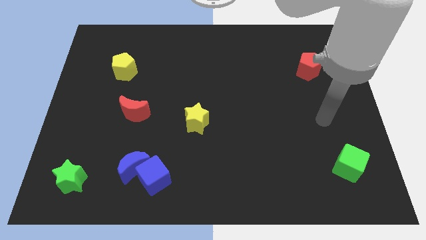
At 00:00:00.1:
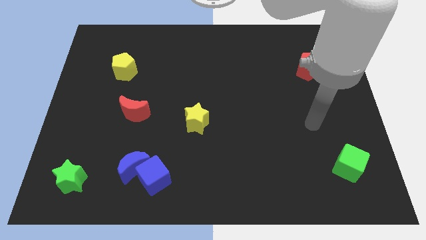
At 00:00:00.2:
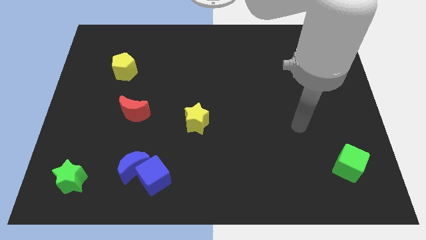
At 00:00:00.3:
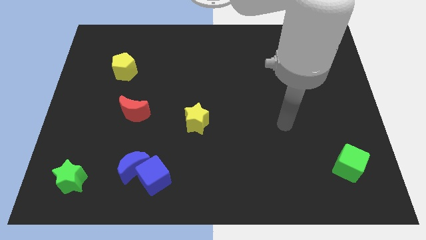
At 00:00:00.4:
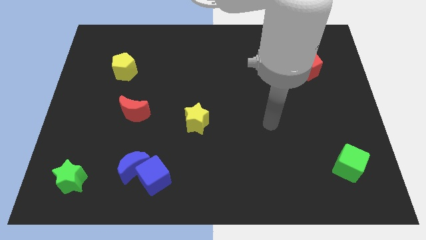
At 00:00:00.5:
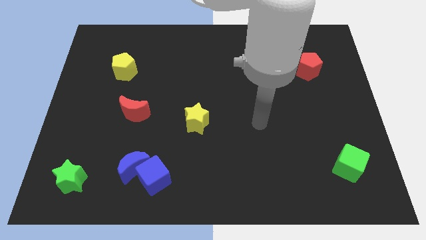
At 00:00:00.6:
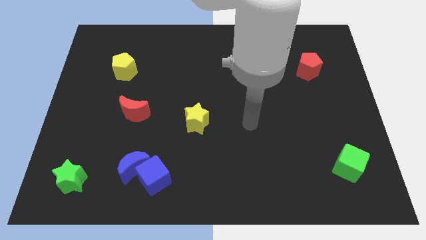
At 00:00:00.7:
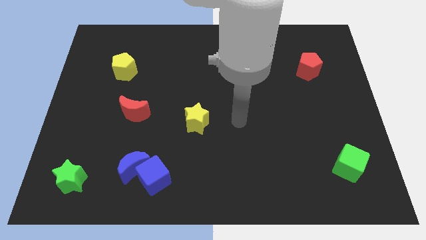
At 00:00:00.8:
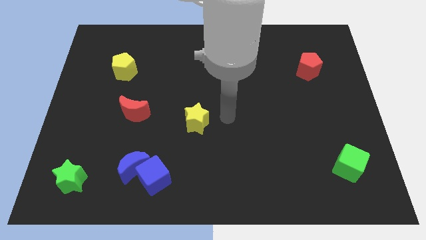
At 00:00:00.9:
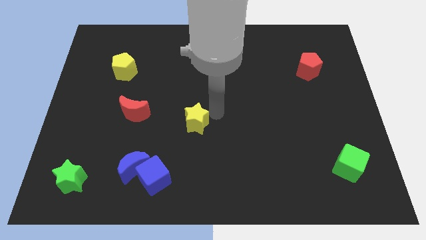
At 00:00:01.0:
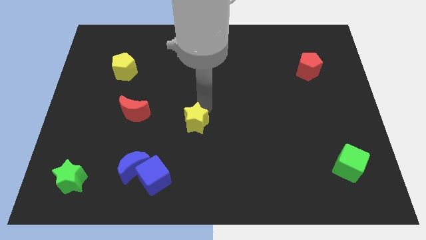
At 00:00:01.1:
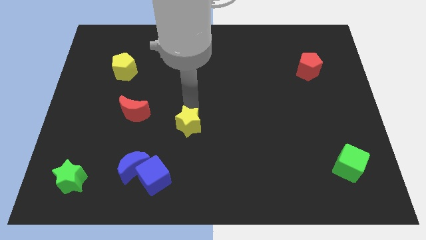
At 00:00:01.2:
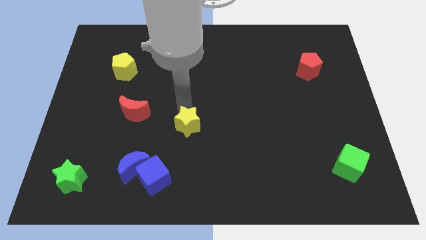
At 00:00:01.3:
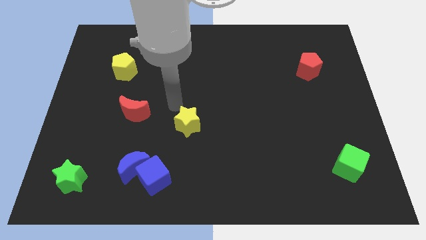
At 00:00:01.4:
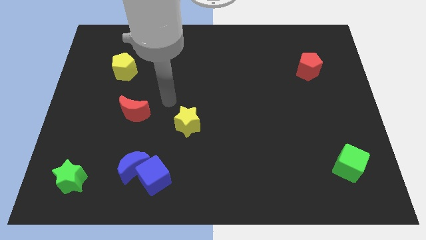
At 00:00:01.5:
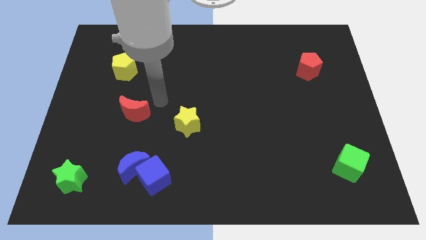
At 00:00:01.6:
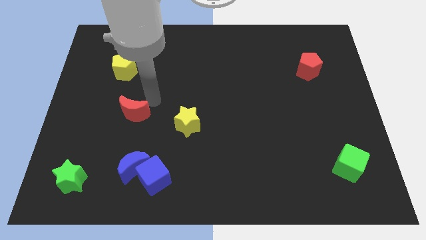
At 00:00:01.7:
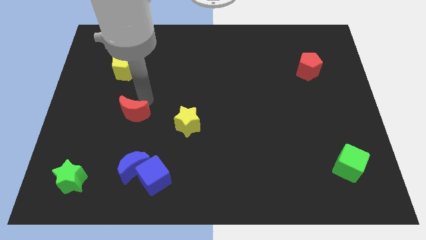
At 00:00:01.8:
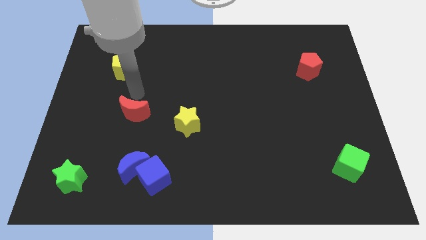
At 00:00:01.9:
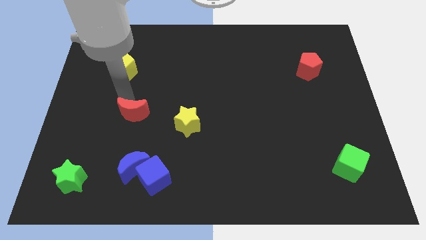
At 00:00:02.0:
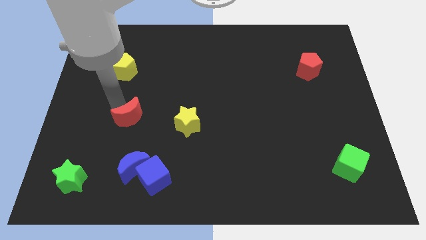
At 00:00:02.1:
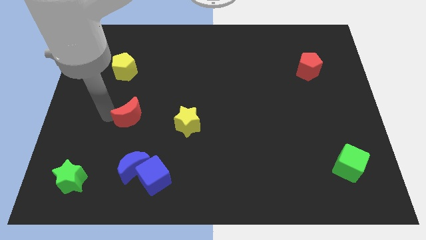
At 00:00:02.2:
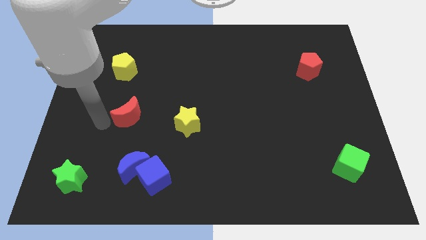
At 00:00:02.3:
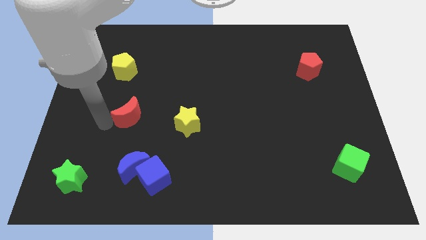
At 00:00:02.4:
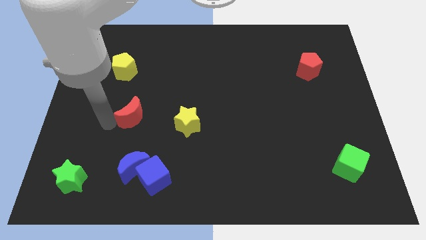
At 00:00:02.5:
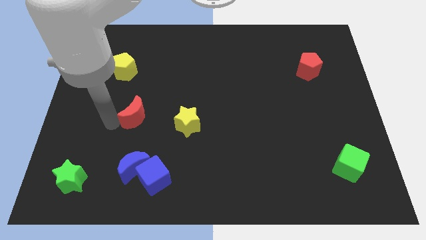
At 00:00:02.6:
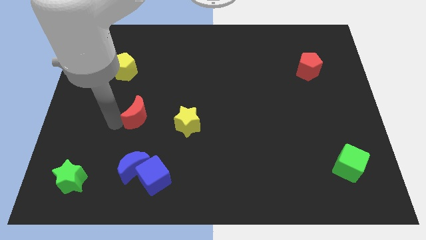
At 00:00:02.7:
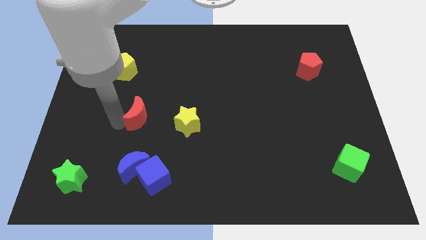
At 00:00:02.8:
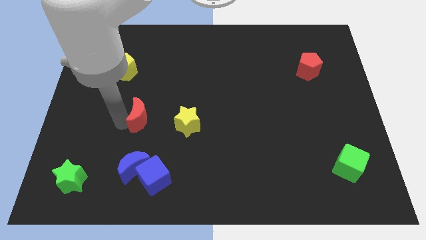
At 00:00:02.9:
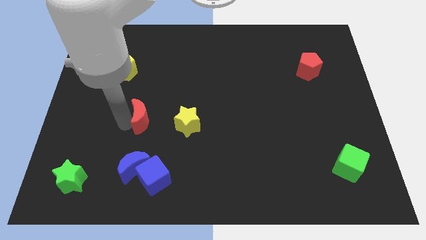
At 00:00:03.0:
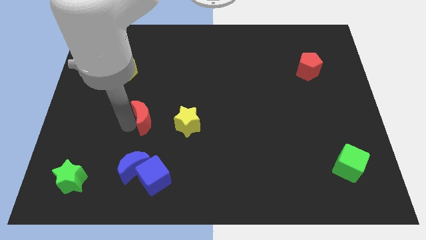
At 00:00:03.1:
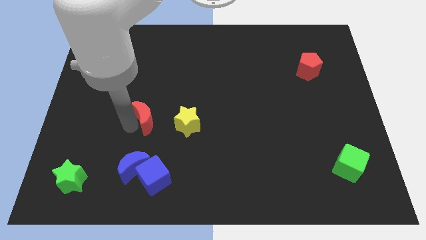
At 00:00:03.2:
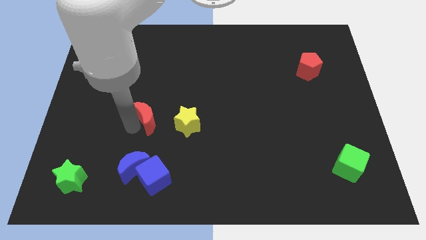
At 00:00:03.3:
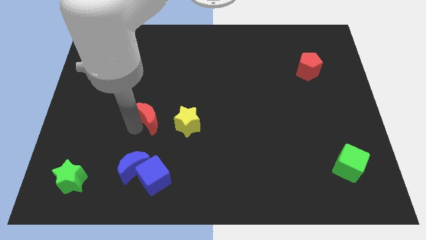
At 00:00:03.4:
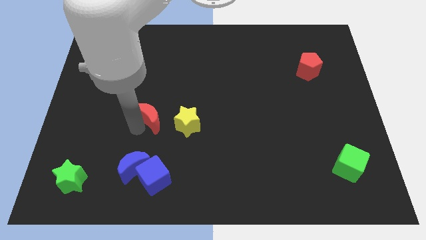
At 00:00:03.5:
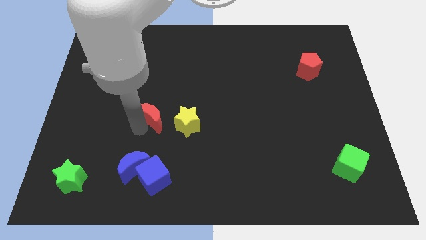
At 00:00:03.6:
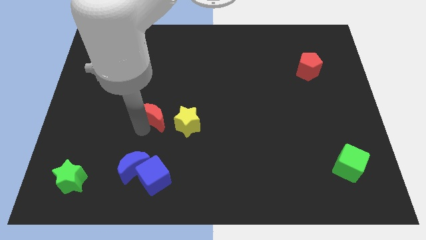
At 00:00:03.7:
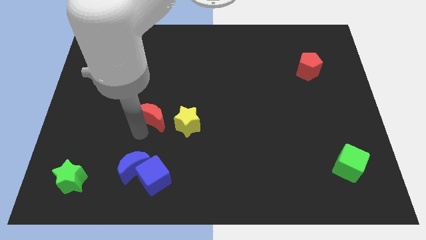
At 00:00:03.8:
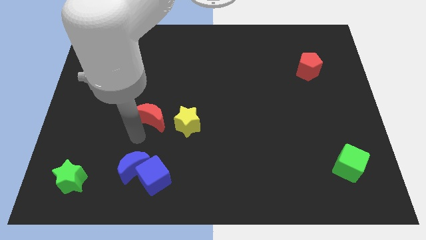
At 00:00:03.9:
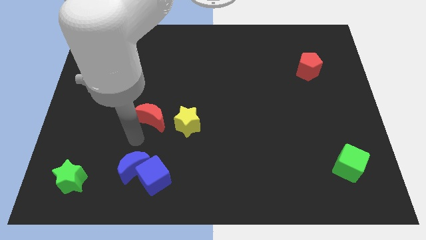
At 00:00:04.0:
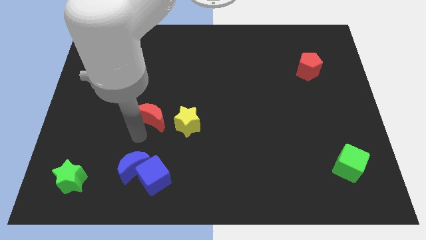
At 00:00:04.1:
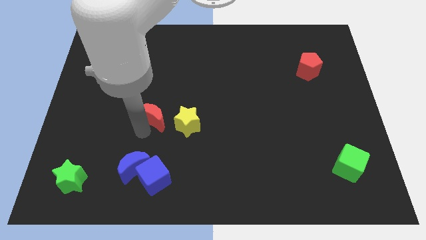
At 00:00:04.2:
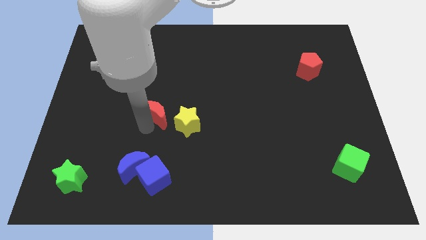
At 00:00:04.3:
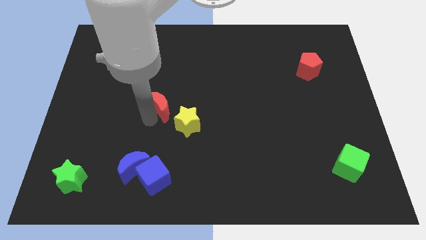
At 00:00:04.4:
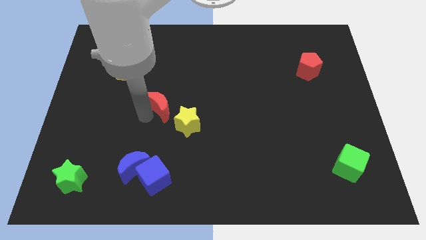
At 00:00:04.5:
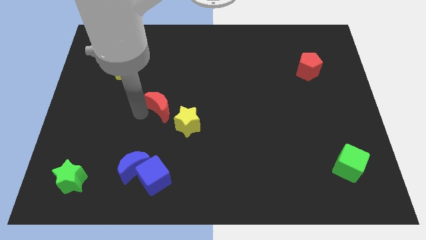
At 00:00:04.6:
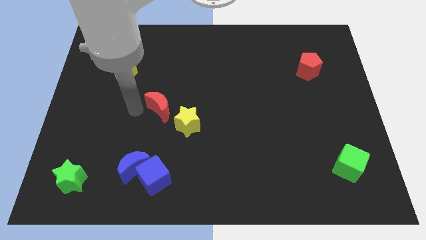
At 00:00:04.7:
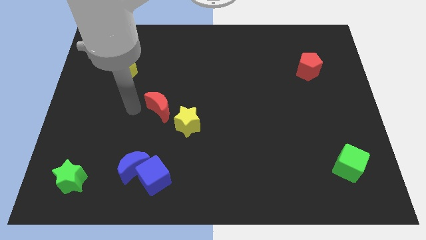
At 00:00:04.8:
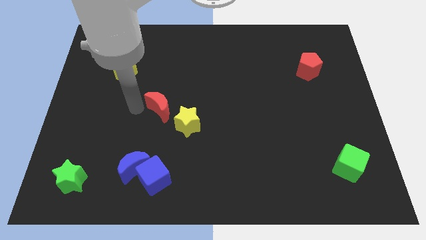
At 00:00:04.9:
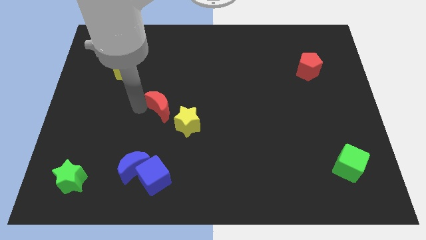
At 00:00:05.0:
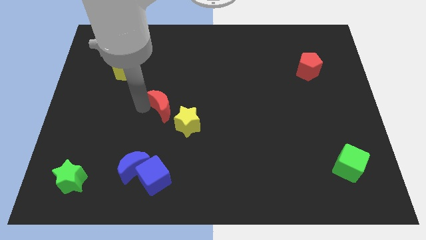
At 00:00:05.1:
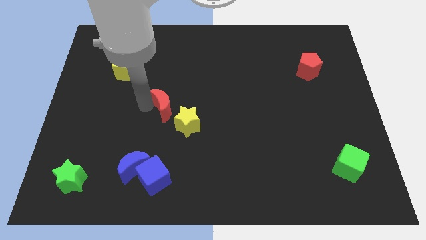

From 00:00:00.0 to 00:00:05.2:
slightly slide the red moon right

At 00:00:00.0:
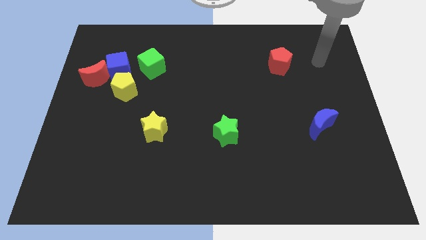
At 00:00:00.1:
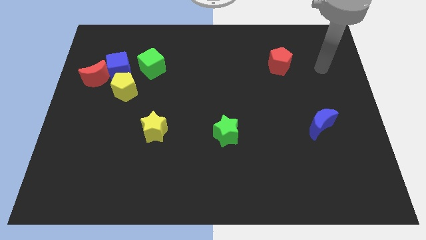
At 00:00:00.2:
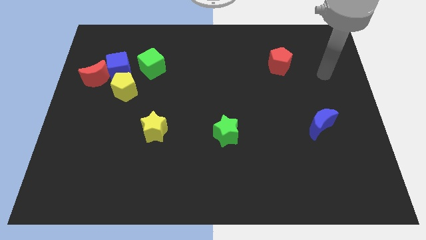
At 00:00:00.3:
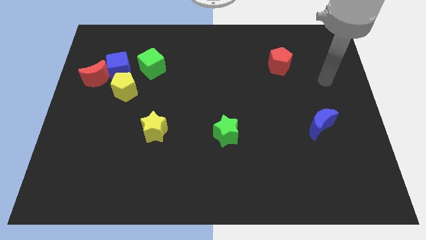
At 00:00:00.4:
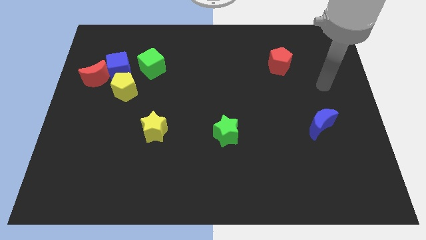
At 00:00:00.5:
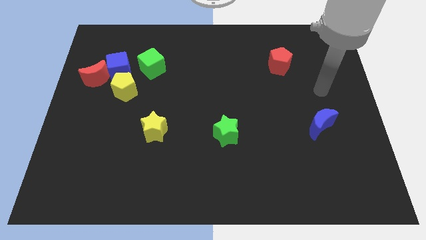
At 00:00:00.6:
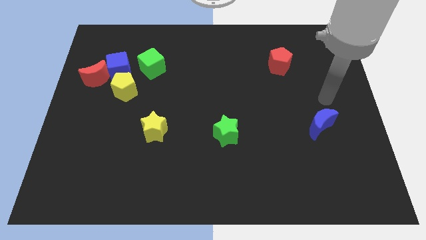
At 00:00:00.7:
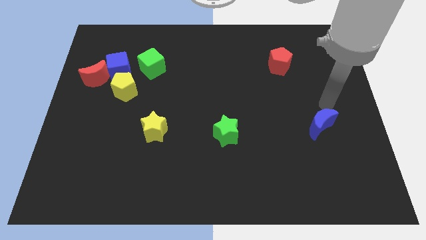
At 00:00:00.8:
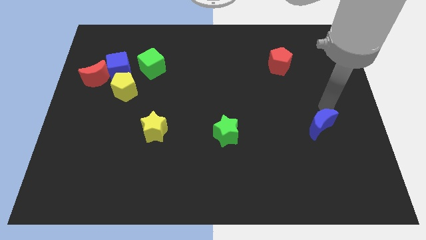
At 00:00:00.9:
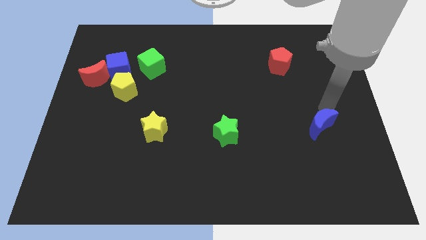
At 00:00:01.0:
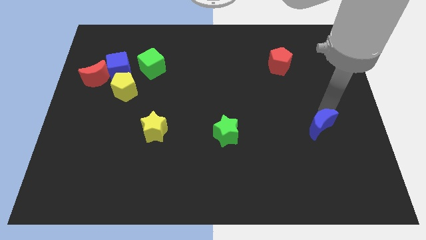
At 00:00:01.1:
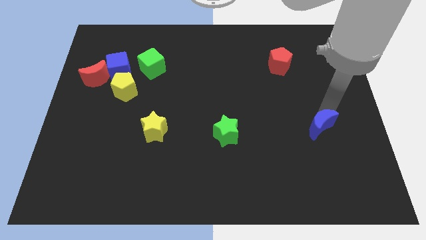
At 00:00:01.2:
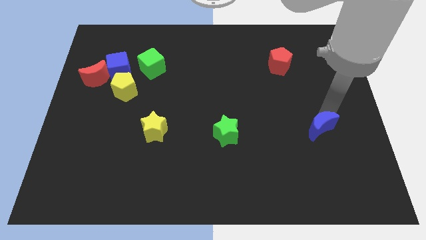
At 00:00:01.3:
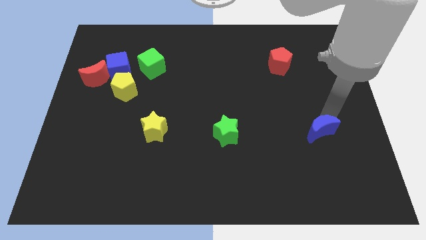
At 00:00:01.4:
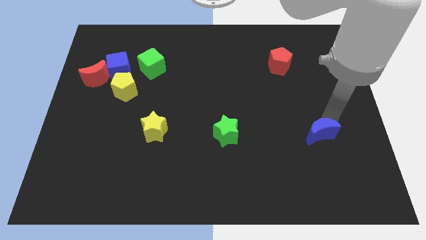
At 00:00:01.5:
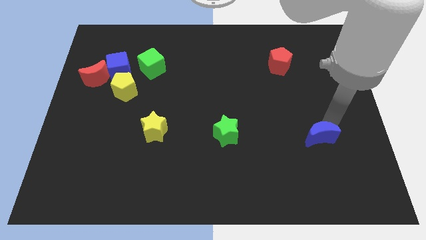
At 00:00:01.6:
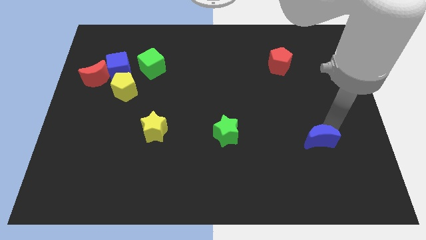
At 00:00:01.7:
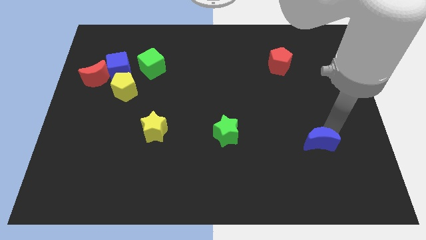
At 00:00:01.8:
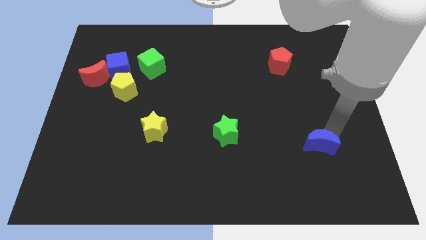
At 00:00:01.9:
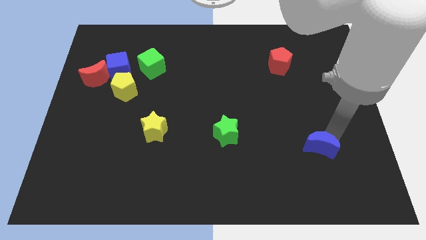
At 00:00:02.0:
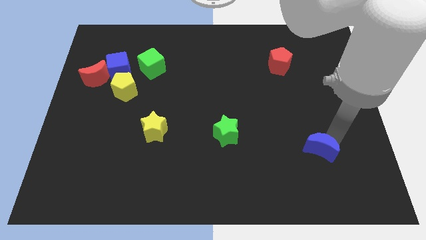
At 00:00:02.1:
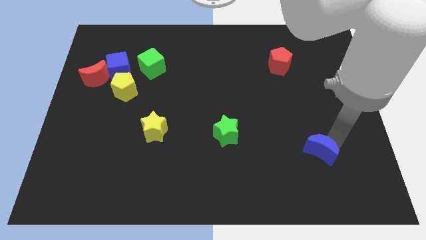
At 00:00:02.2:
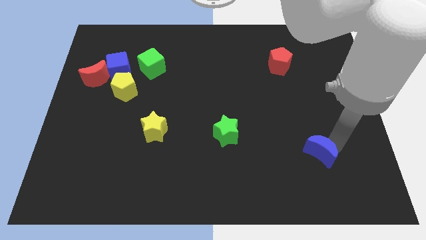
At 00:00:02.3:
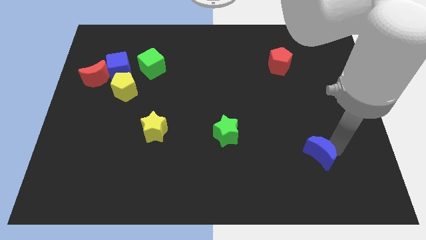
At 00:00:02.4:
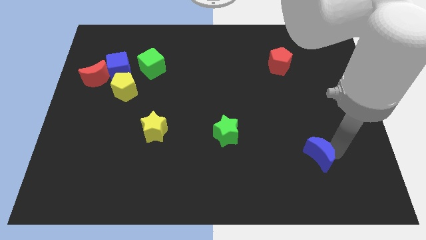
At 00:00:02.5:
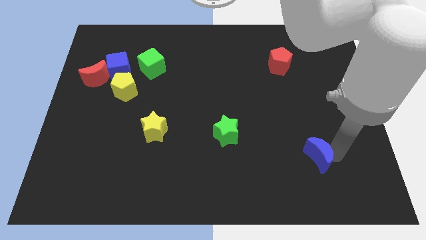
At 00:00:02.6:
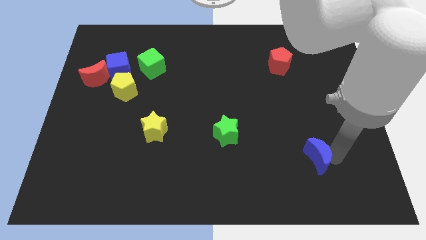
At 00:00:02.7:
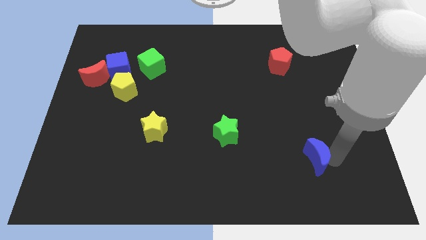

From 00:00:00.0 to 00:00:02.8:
slightly move the blue moon diagonally down and left

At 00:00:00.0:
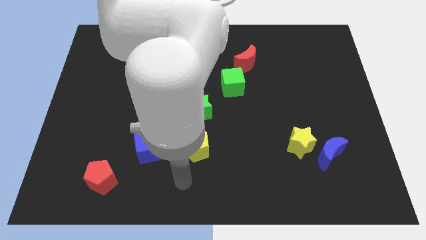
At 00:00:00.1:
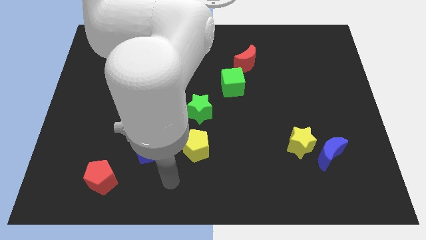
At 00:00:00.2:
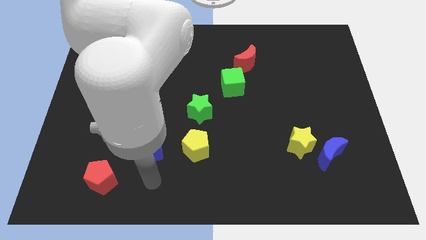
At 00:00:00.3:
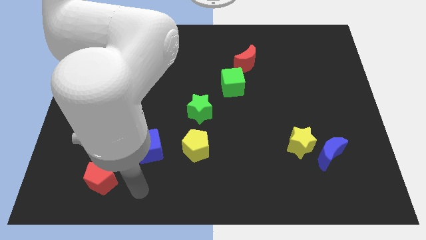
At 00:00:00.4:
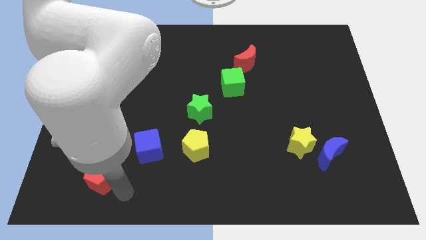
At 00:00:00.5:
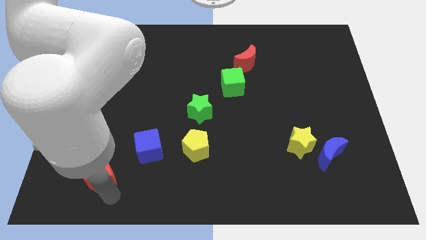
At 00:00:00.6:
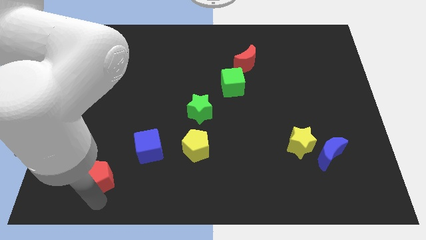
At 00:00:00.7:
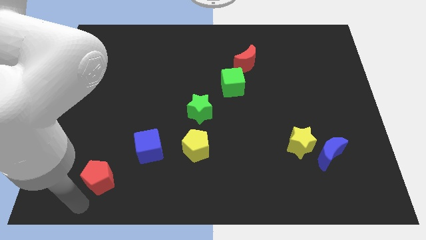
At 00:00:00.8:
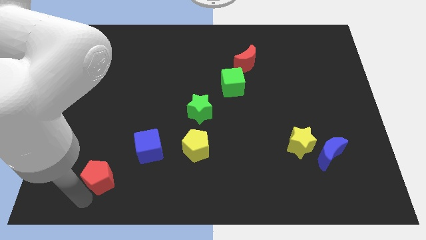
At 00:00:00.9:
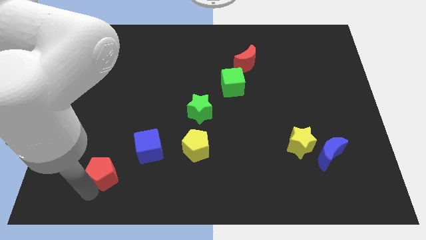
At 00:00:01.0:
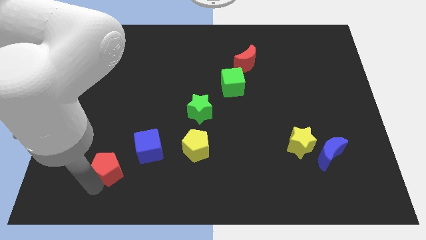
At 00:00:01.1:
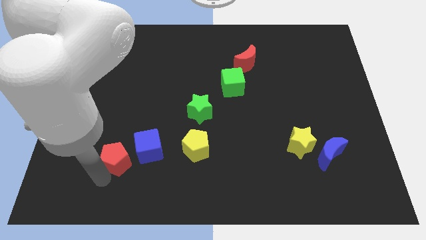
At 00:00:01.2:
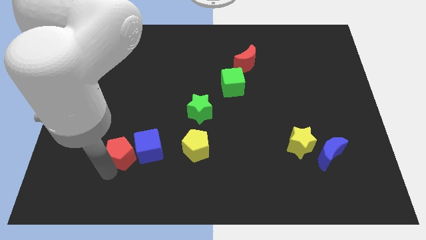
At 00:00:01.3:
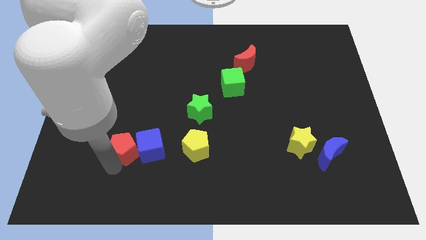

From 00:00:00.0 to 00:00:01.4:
move the red pentagon upwards and to the right a bit
